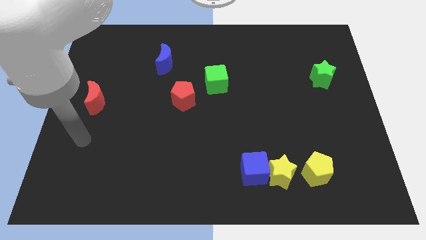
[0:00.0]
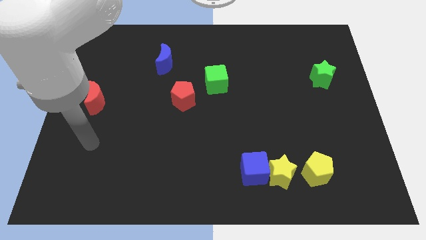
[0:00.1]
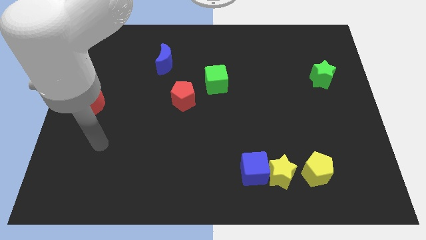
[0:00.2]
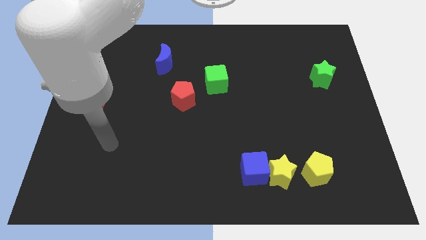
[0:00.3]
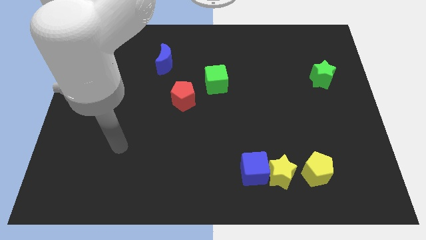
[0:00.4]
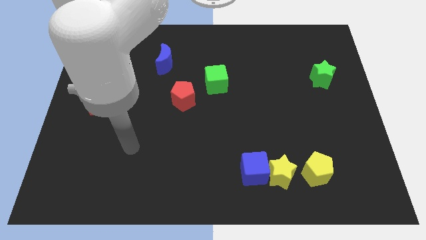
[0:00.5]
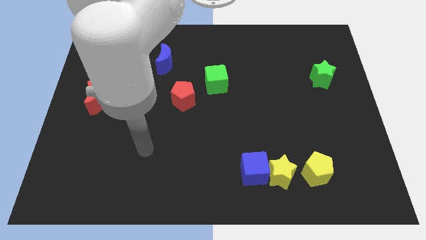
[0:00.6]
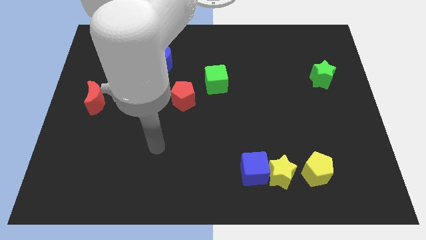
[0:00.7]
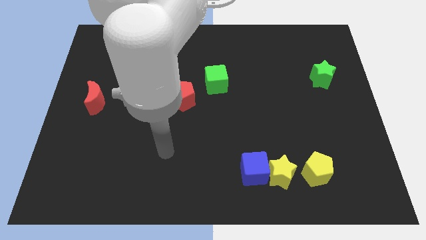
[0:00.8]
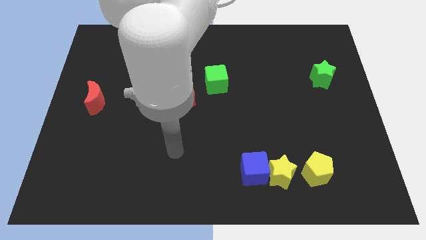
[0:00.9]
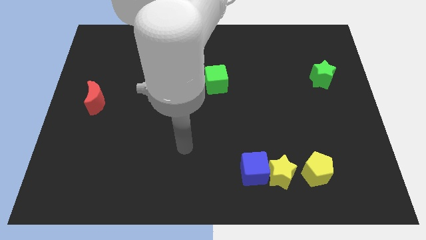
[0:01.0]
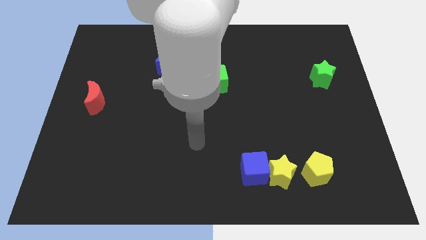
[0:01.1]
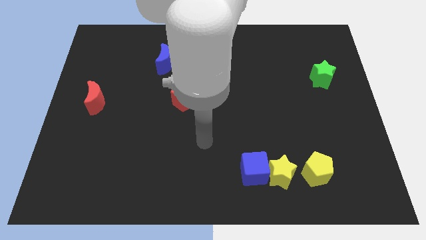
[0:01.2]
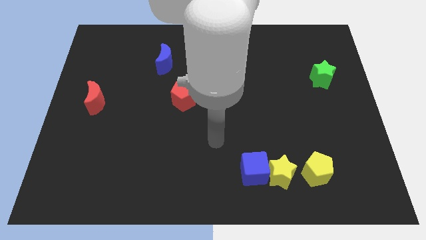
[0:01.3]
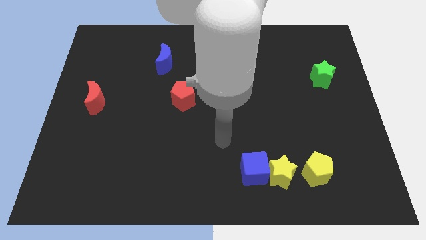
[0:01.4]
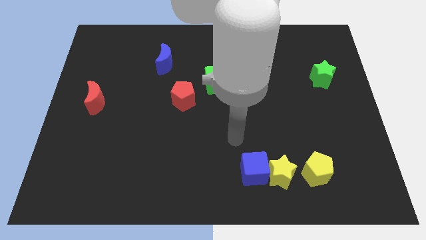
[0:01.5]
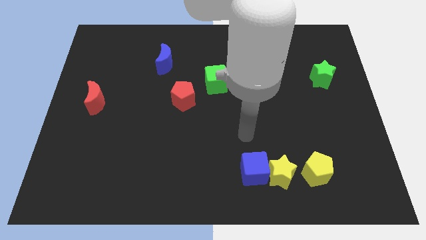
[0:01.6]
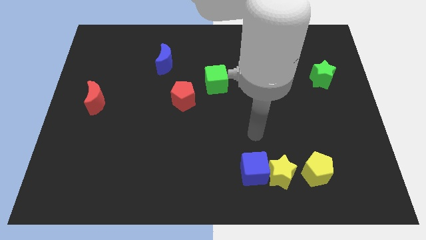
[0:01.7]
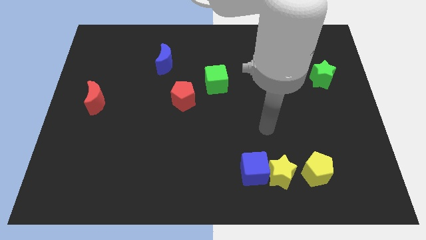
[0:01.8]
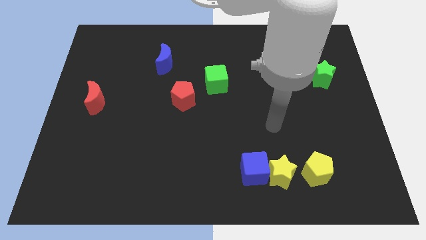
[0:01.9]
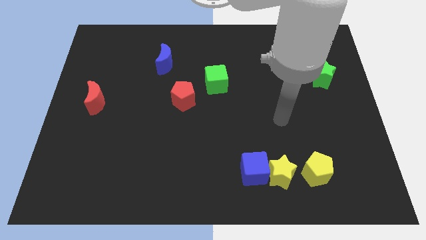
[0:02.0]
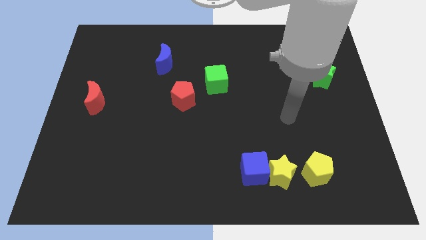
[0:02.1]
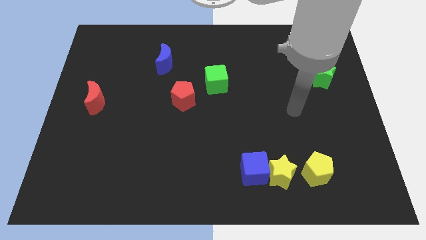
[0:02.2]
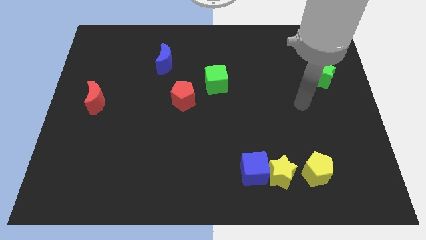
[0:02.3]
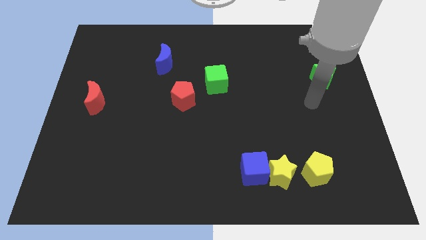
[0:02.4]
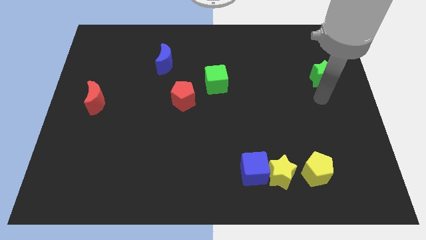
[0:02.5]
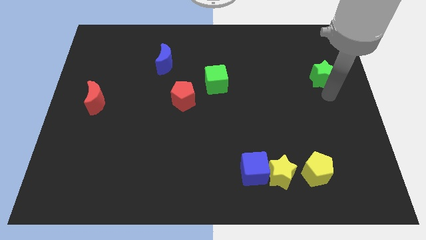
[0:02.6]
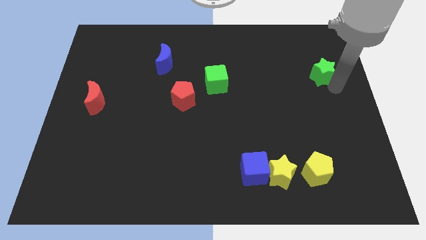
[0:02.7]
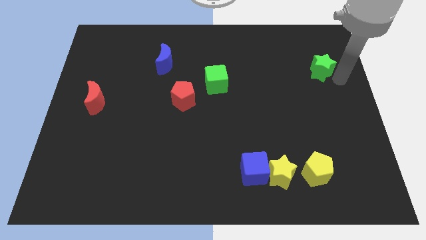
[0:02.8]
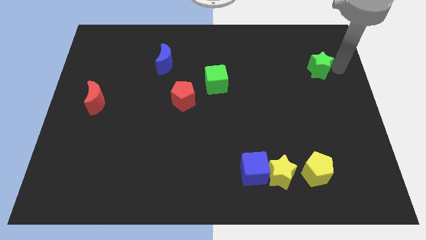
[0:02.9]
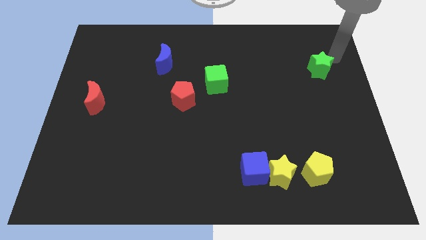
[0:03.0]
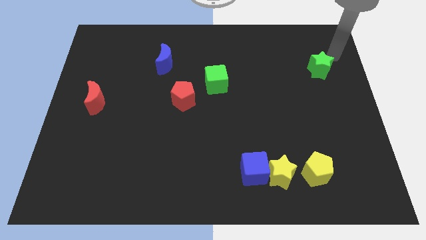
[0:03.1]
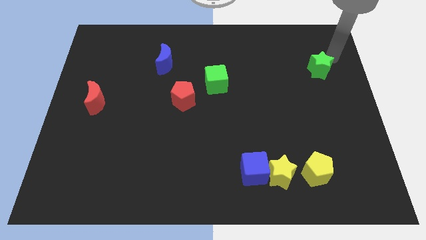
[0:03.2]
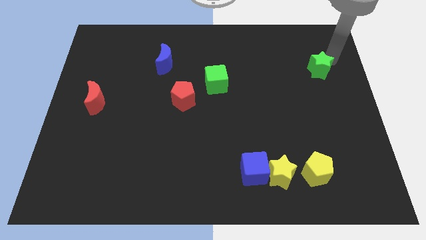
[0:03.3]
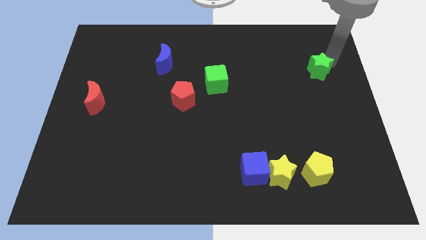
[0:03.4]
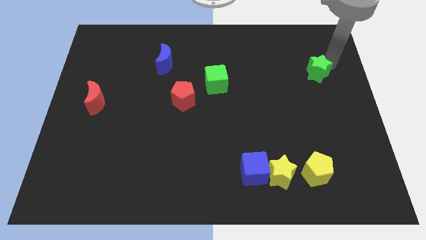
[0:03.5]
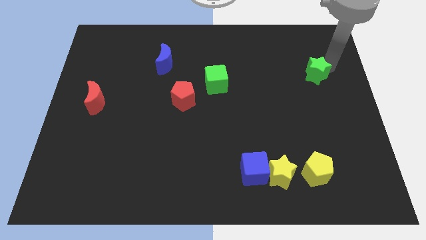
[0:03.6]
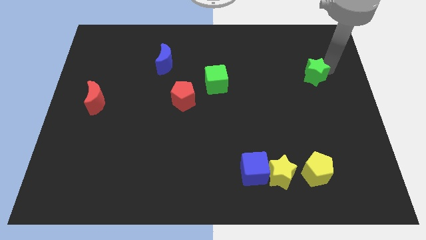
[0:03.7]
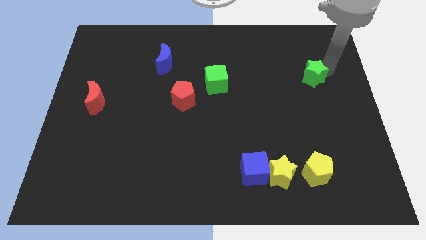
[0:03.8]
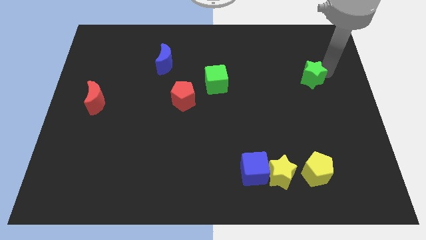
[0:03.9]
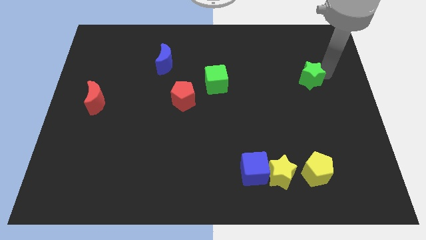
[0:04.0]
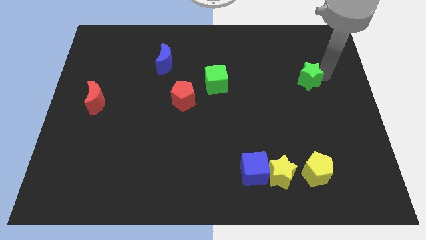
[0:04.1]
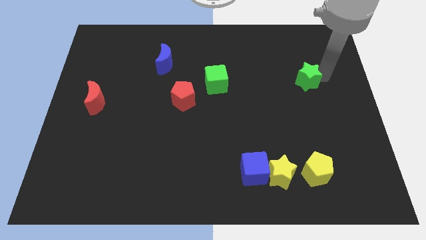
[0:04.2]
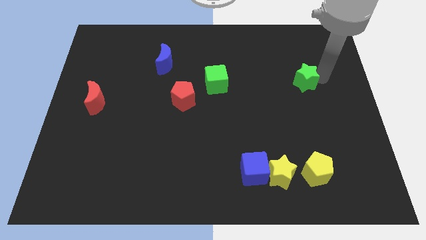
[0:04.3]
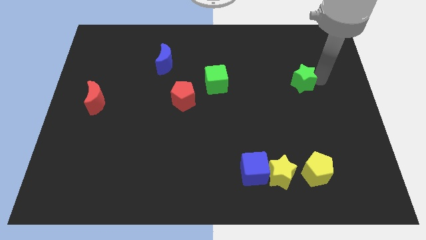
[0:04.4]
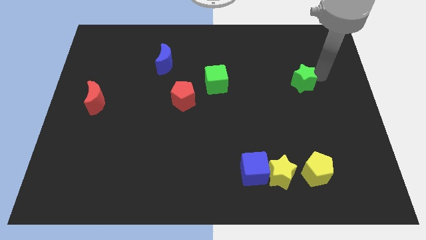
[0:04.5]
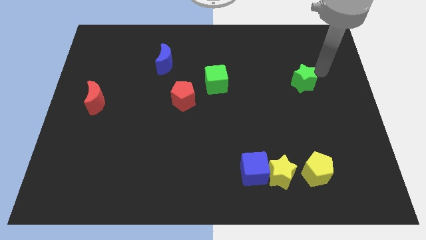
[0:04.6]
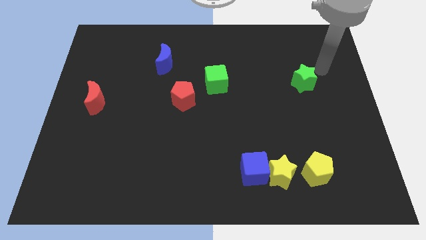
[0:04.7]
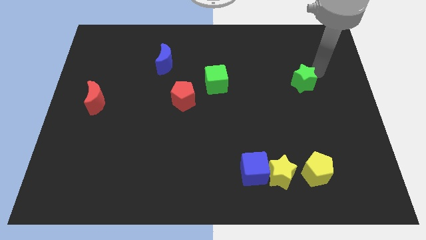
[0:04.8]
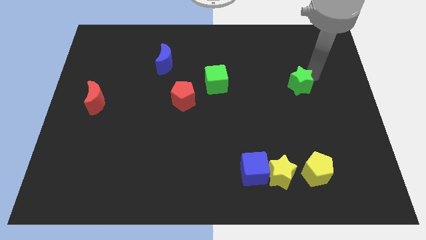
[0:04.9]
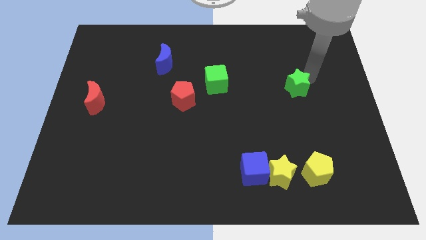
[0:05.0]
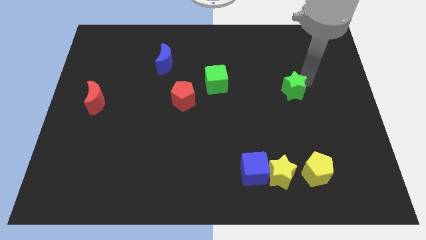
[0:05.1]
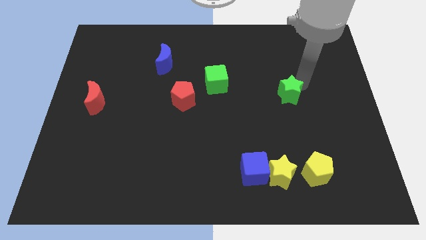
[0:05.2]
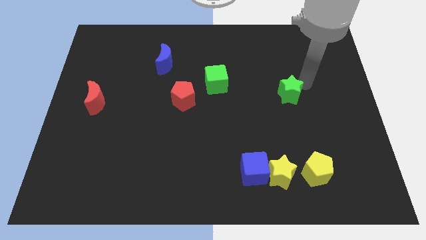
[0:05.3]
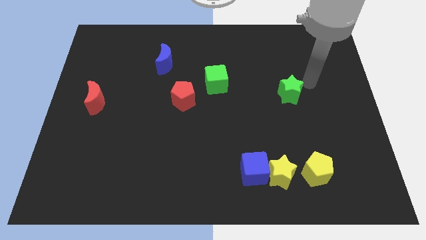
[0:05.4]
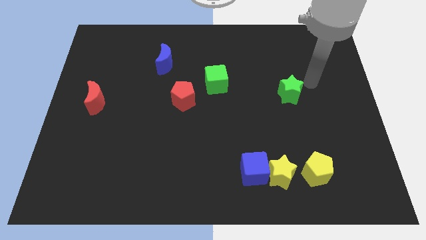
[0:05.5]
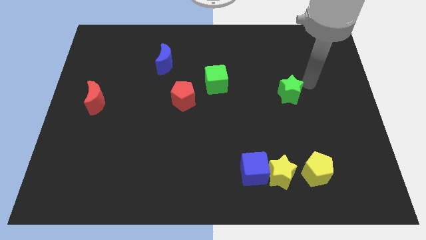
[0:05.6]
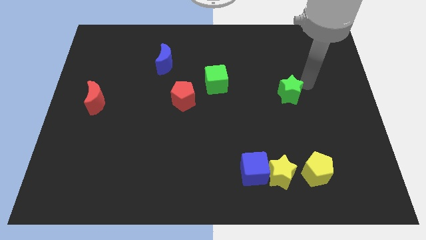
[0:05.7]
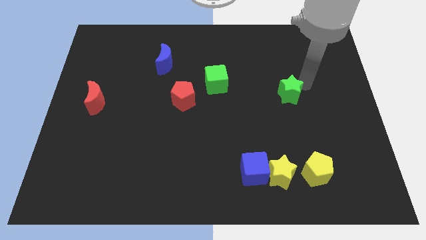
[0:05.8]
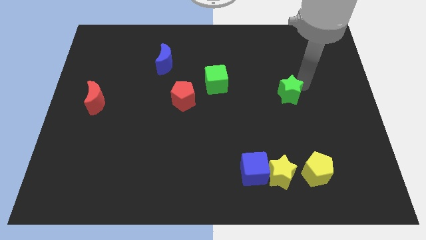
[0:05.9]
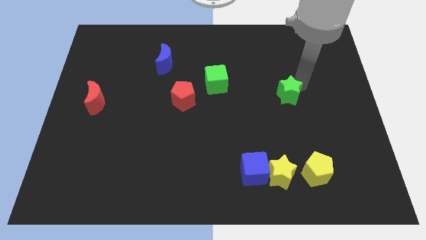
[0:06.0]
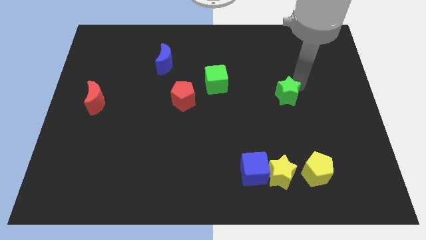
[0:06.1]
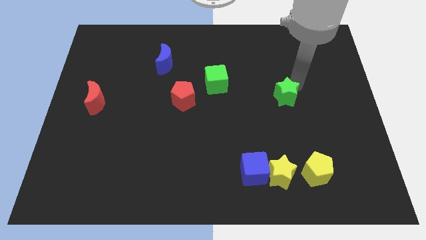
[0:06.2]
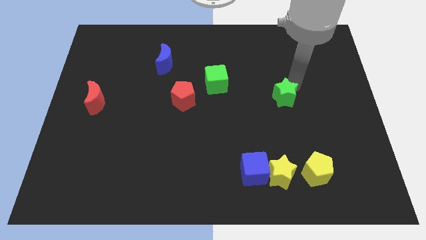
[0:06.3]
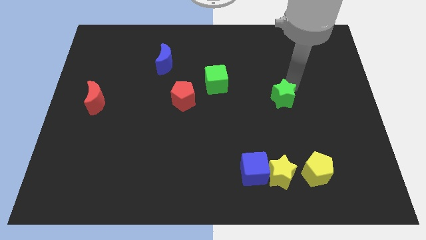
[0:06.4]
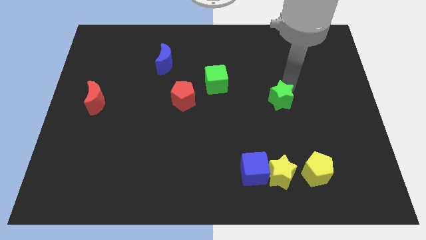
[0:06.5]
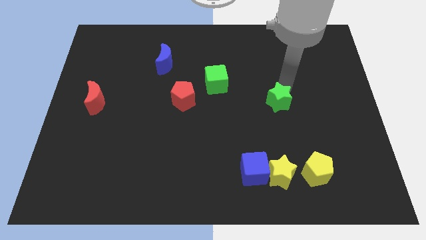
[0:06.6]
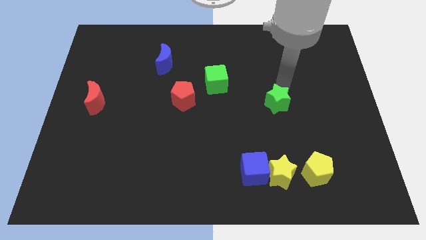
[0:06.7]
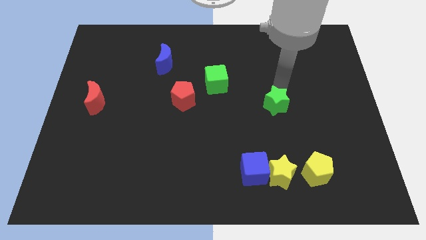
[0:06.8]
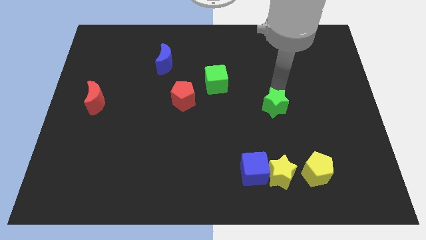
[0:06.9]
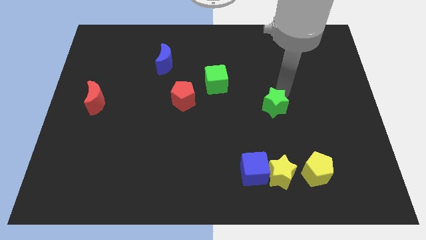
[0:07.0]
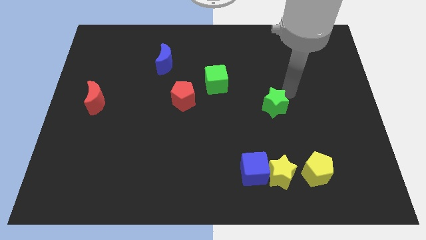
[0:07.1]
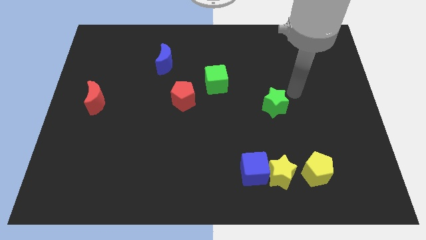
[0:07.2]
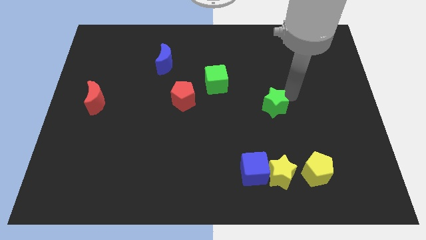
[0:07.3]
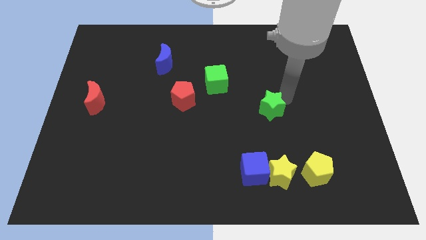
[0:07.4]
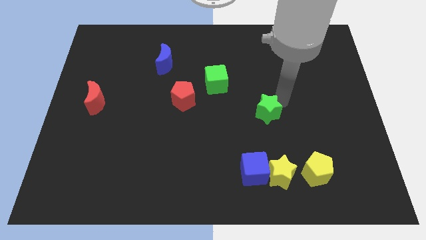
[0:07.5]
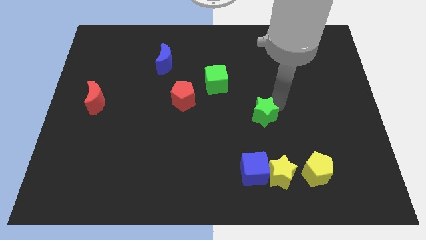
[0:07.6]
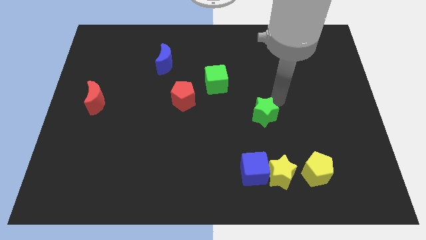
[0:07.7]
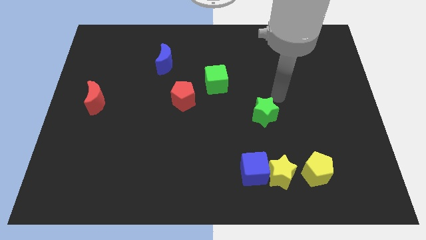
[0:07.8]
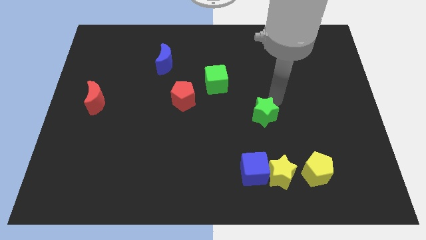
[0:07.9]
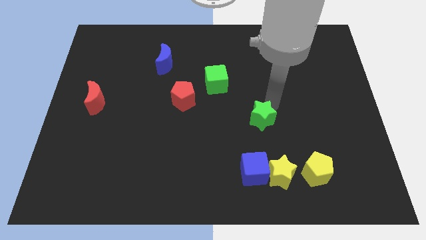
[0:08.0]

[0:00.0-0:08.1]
push the green star down and left diagonally
